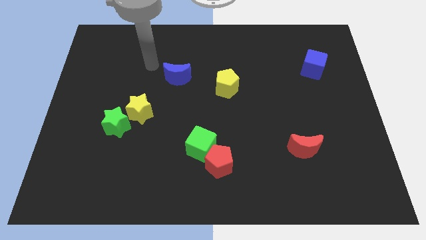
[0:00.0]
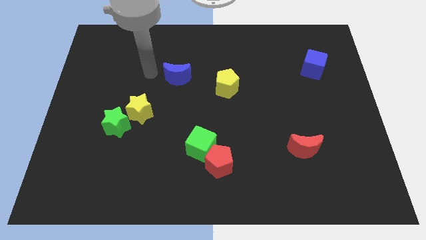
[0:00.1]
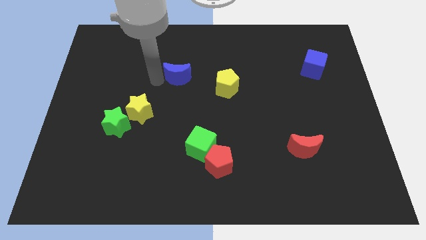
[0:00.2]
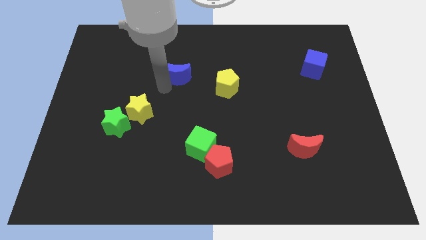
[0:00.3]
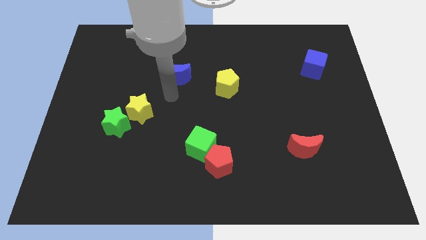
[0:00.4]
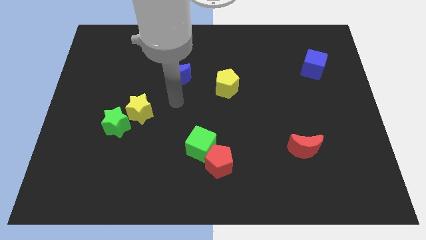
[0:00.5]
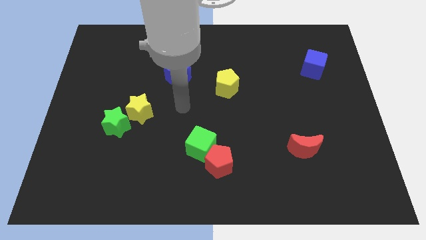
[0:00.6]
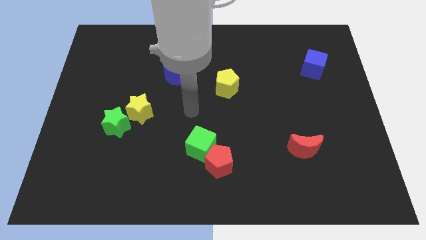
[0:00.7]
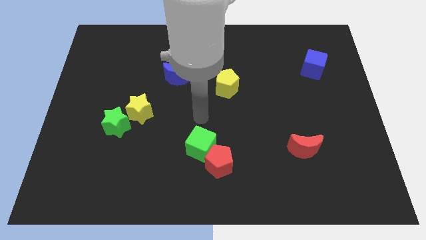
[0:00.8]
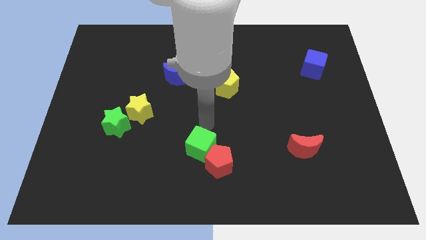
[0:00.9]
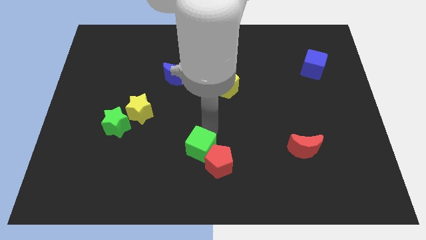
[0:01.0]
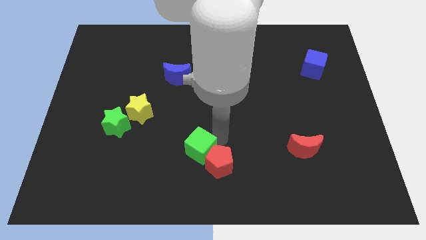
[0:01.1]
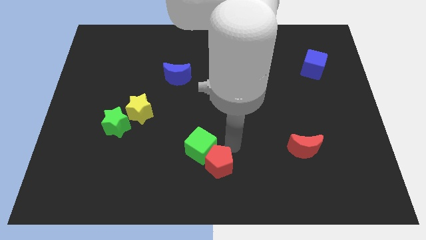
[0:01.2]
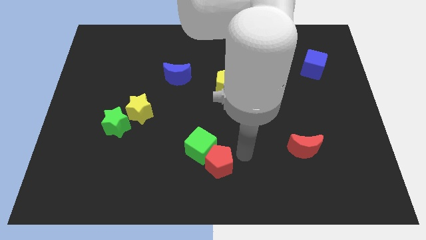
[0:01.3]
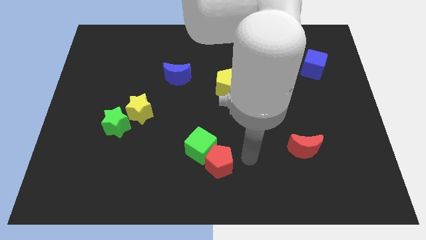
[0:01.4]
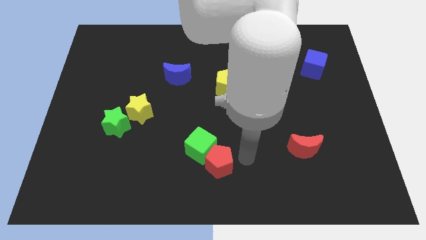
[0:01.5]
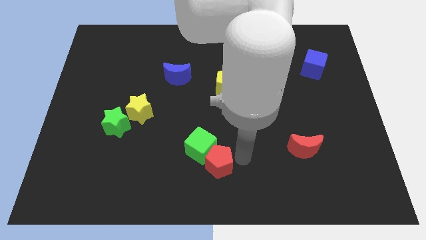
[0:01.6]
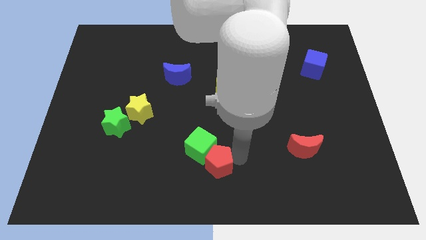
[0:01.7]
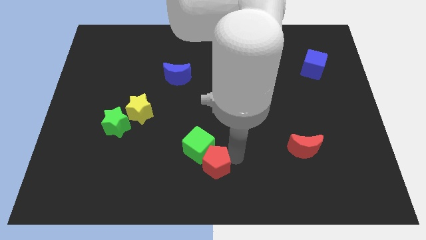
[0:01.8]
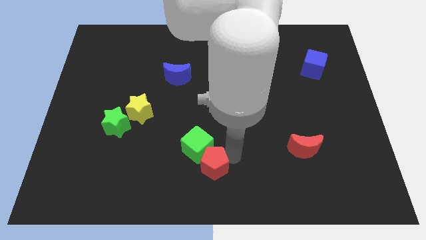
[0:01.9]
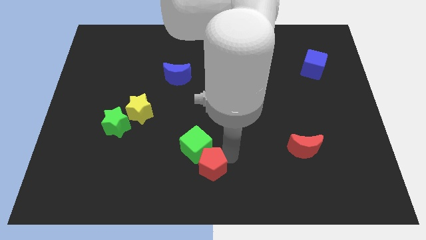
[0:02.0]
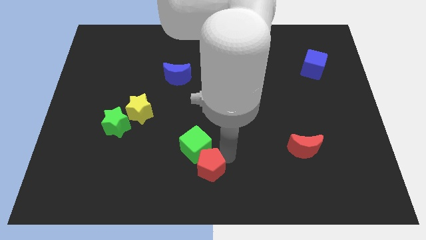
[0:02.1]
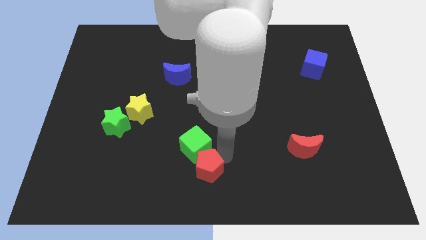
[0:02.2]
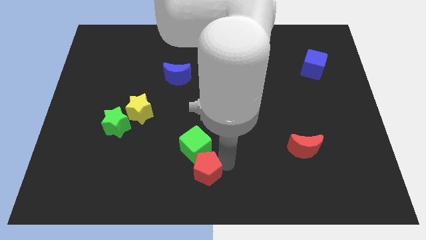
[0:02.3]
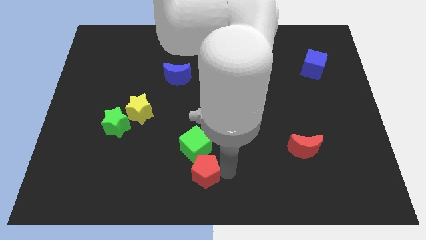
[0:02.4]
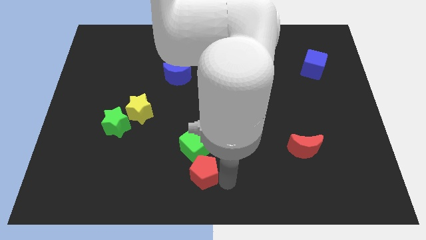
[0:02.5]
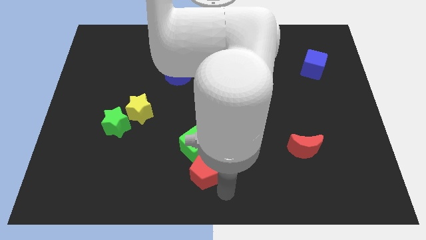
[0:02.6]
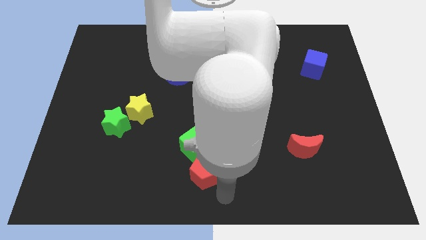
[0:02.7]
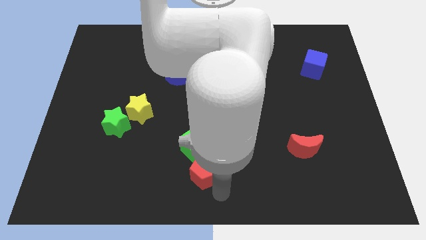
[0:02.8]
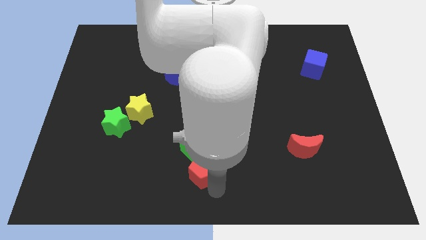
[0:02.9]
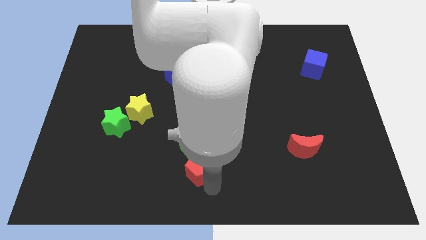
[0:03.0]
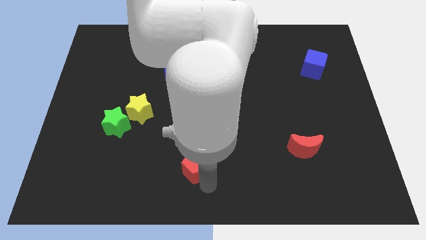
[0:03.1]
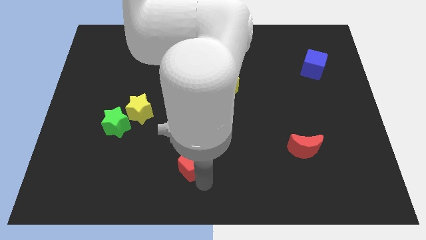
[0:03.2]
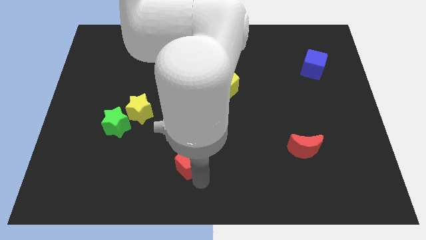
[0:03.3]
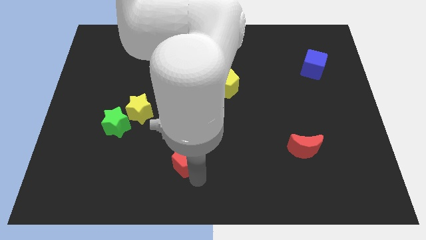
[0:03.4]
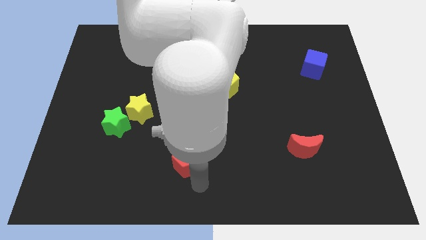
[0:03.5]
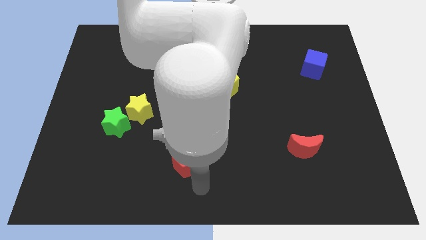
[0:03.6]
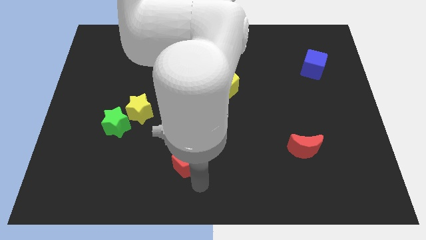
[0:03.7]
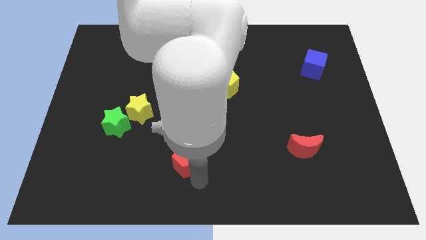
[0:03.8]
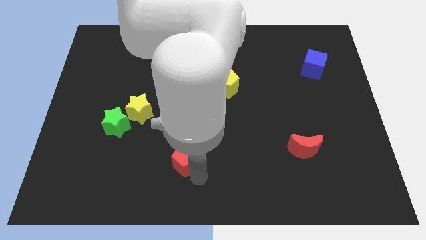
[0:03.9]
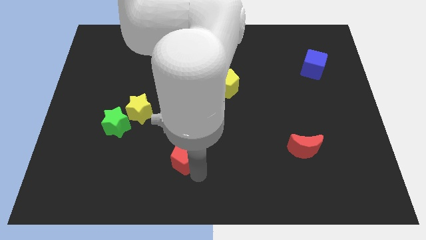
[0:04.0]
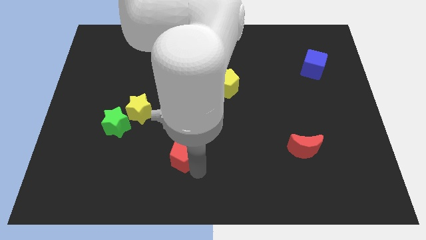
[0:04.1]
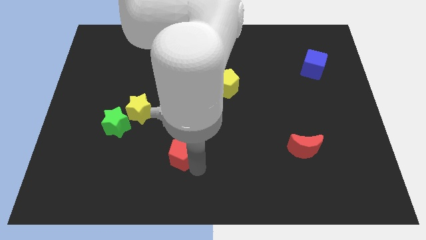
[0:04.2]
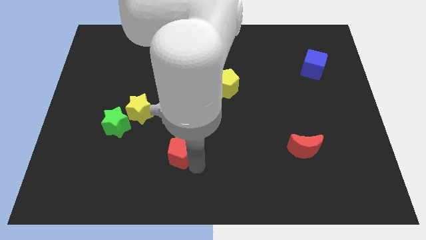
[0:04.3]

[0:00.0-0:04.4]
slide the red pentagon somewhat diagonally upwards and to the left

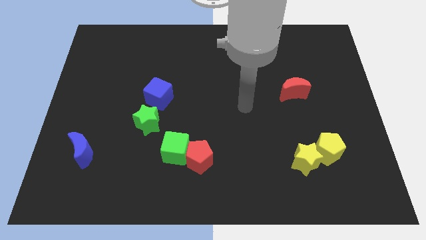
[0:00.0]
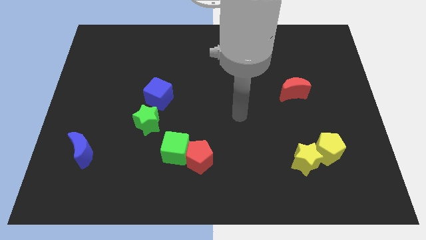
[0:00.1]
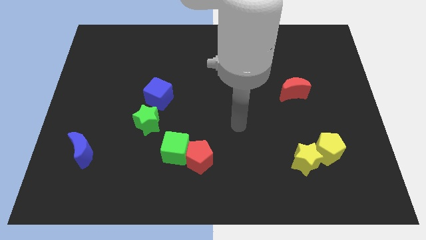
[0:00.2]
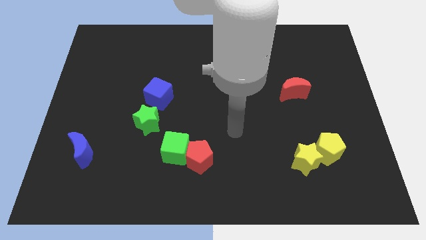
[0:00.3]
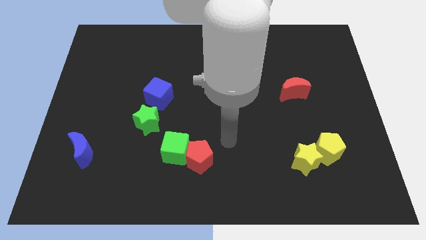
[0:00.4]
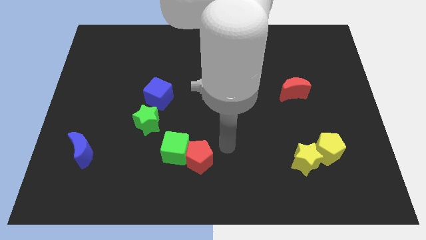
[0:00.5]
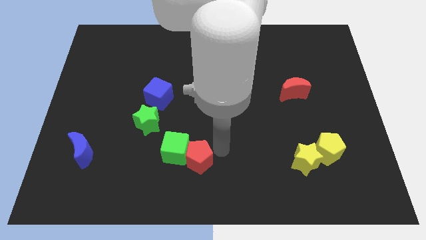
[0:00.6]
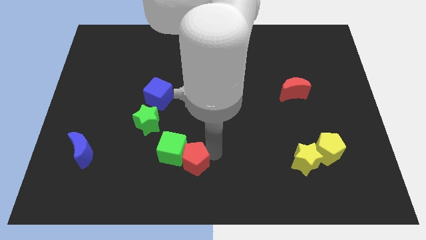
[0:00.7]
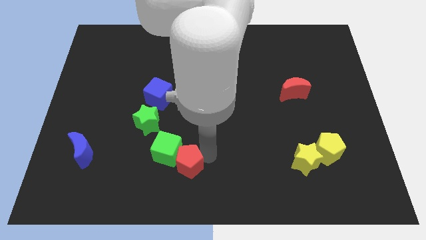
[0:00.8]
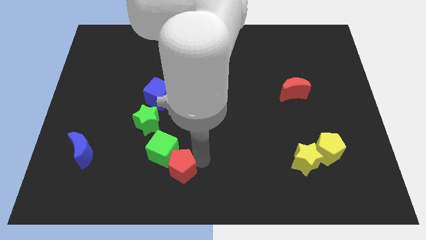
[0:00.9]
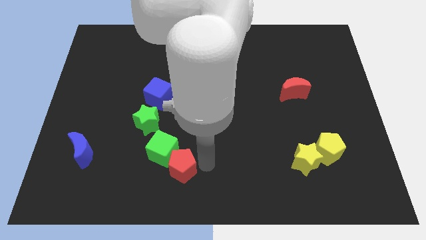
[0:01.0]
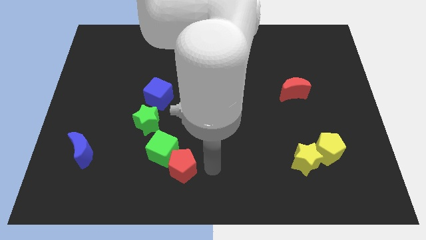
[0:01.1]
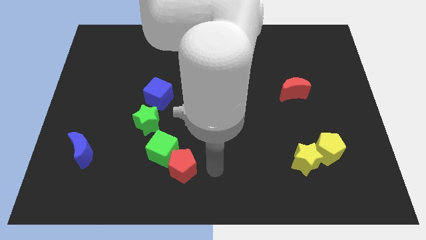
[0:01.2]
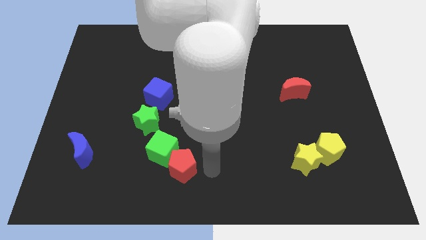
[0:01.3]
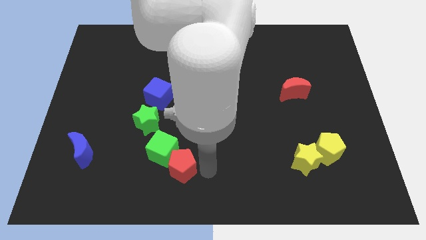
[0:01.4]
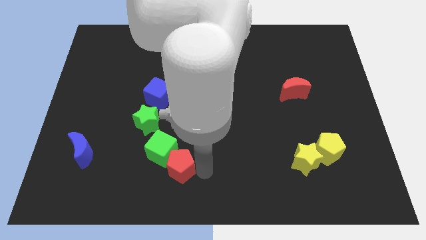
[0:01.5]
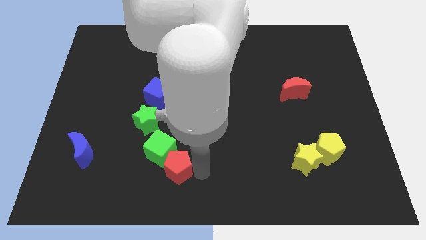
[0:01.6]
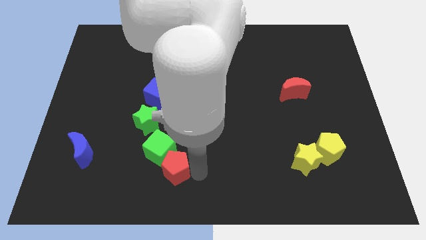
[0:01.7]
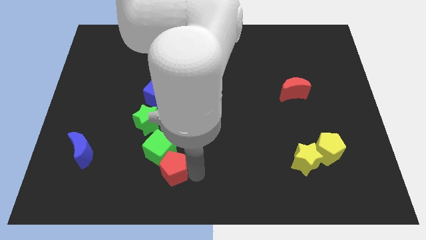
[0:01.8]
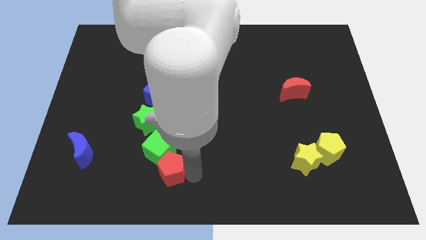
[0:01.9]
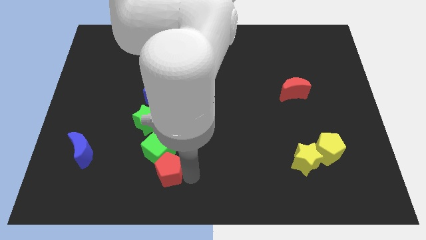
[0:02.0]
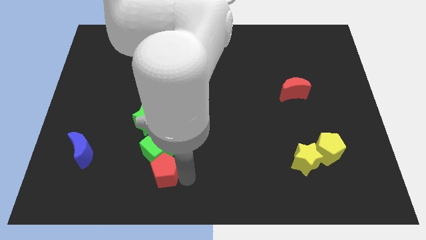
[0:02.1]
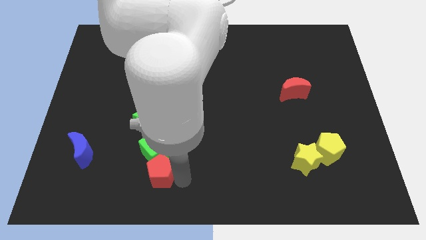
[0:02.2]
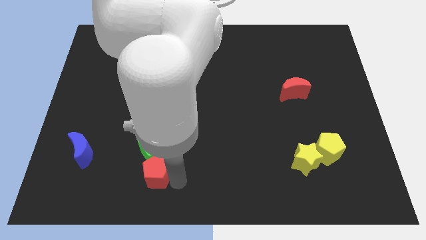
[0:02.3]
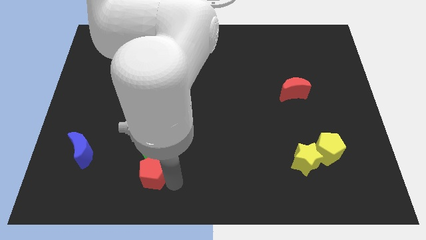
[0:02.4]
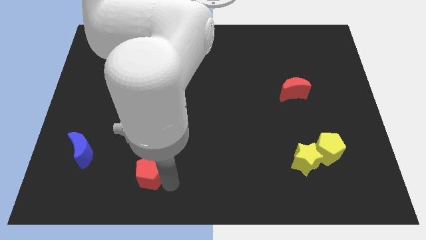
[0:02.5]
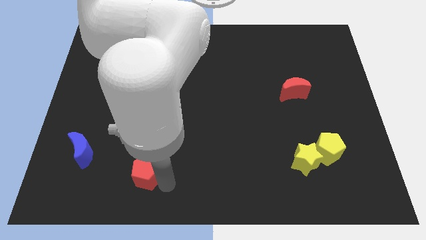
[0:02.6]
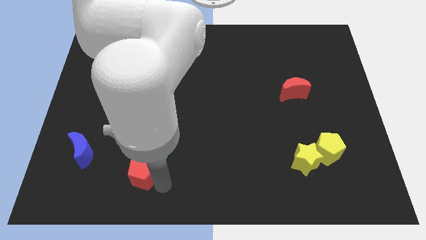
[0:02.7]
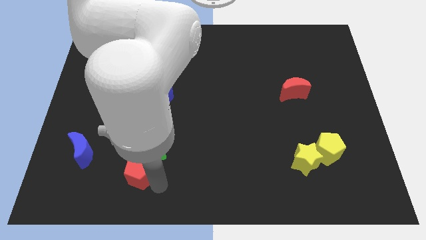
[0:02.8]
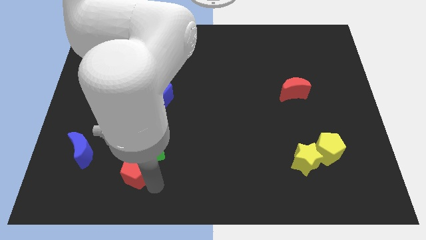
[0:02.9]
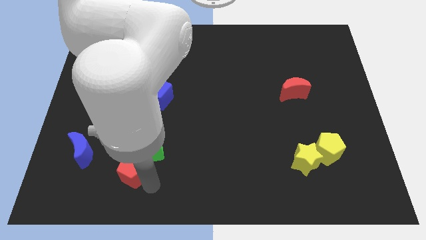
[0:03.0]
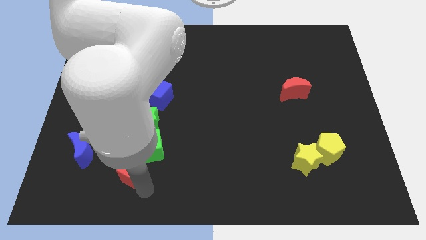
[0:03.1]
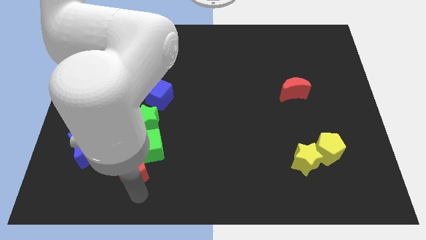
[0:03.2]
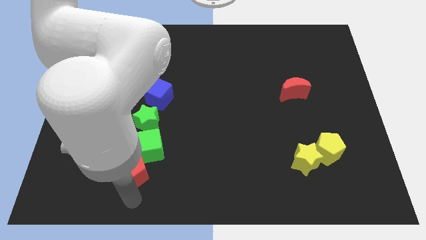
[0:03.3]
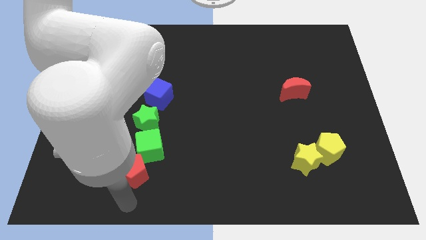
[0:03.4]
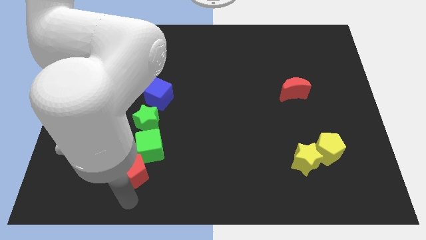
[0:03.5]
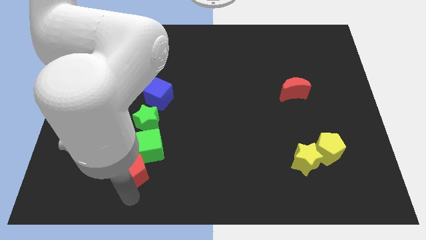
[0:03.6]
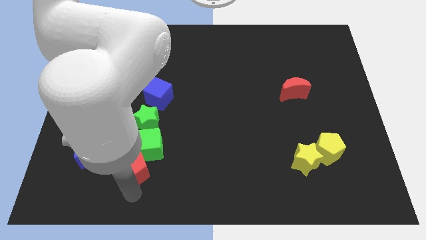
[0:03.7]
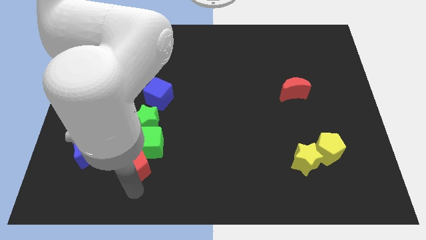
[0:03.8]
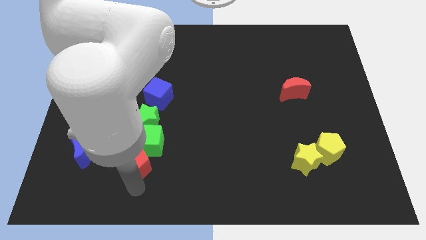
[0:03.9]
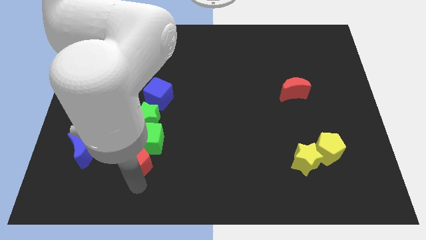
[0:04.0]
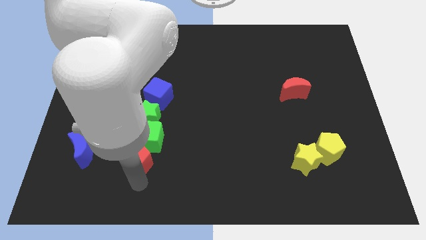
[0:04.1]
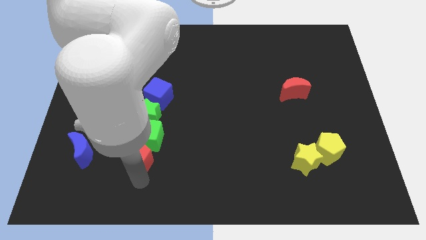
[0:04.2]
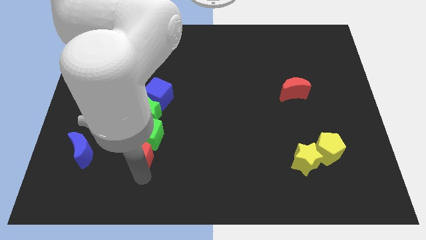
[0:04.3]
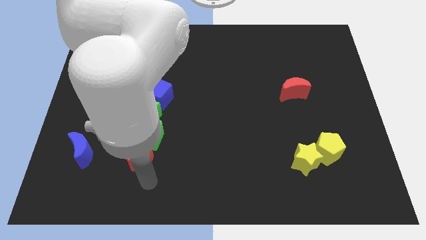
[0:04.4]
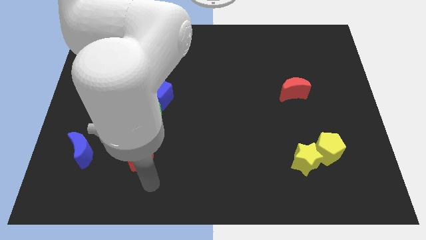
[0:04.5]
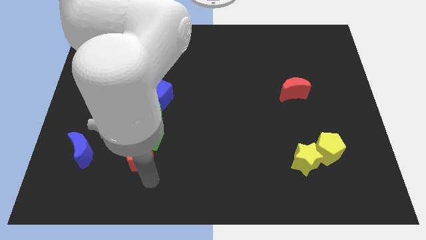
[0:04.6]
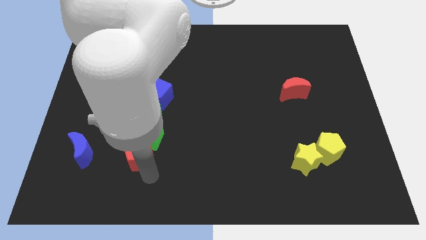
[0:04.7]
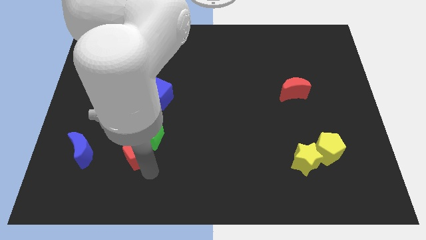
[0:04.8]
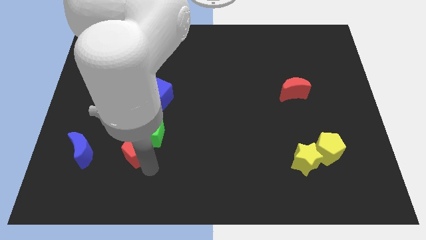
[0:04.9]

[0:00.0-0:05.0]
push the red pentagon upwards and left somewhat
